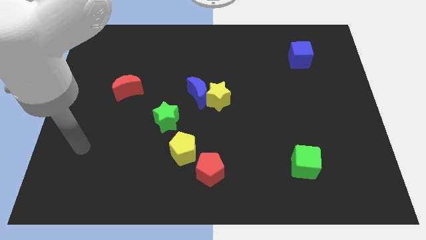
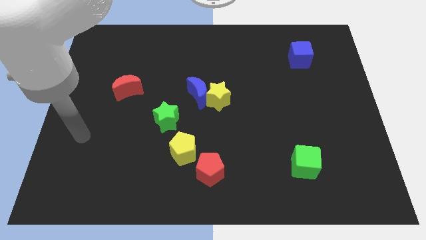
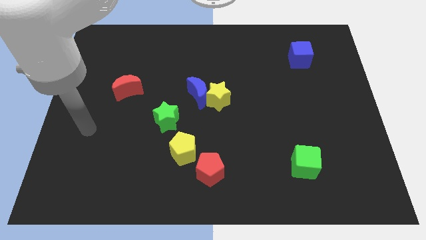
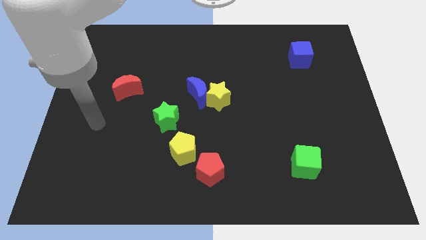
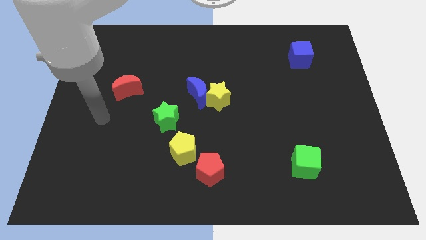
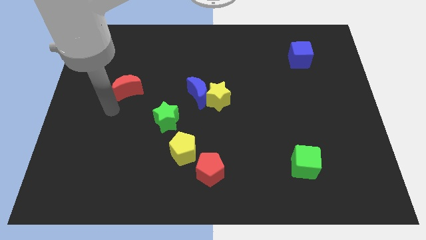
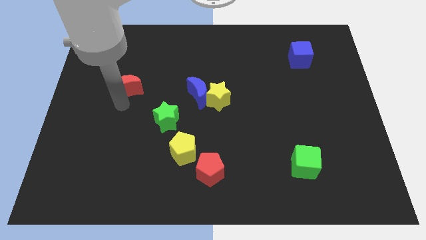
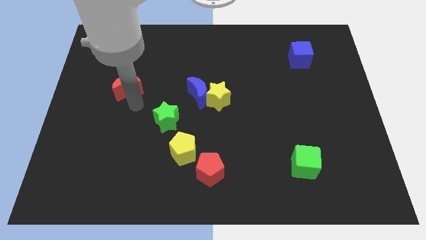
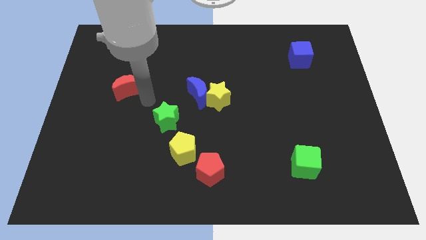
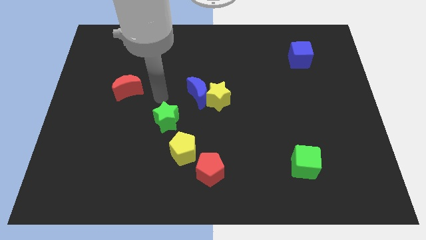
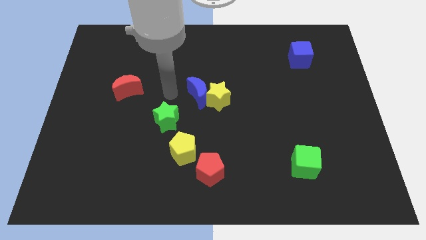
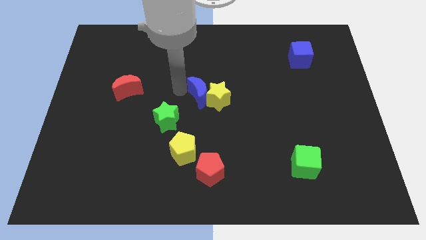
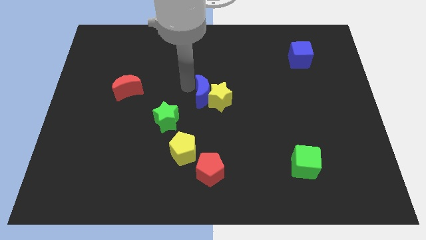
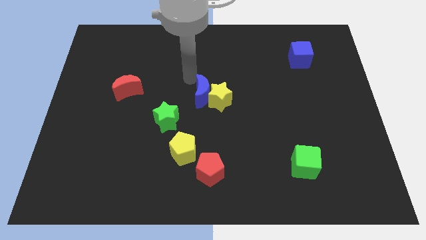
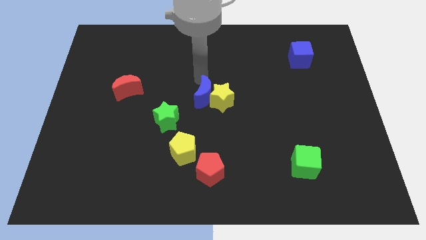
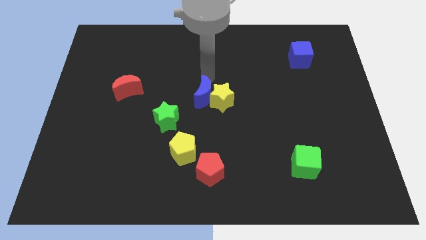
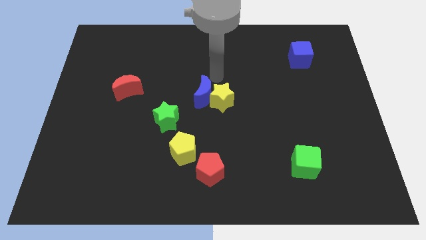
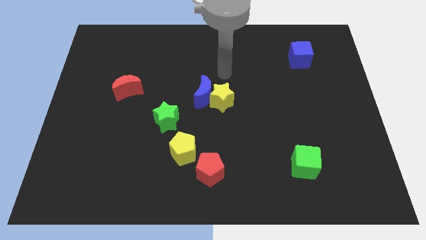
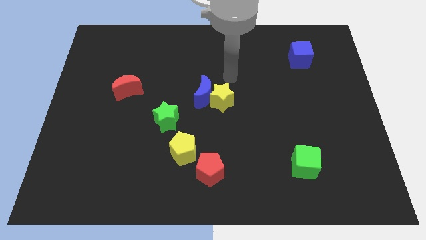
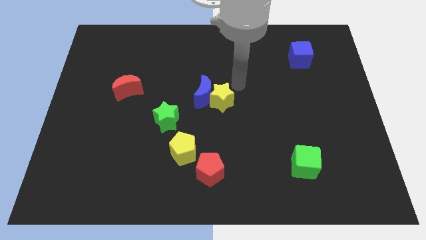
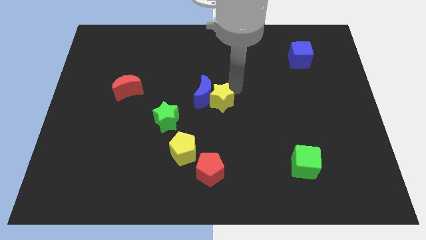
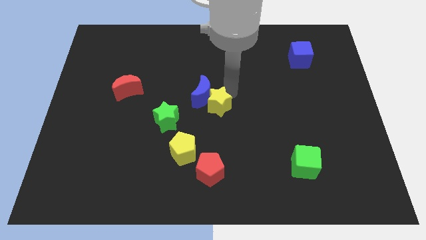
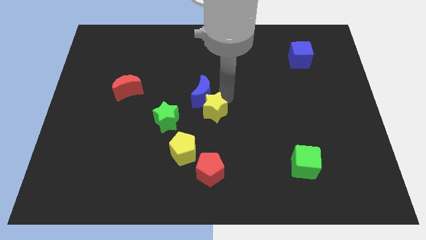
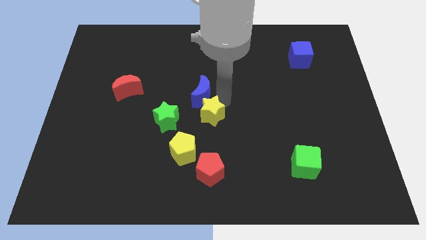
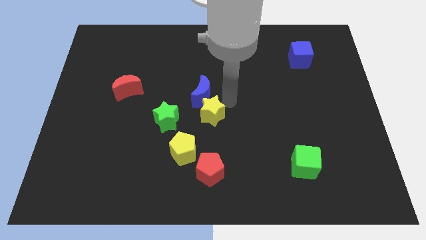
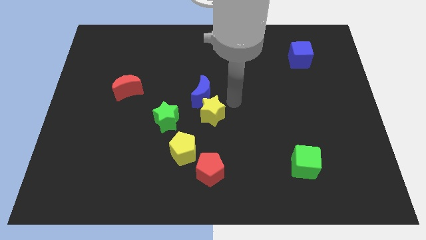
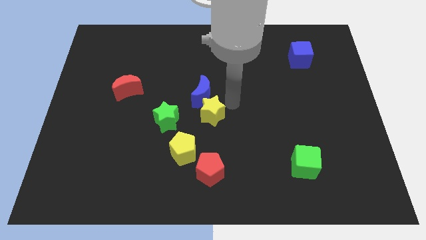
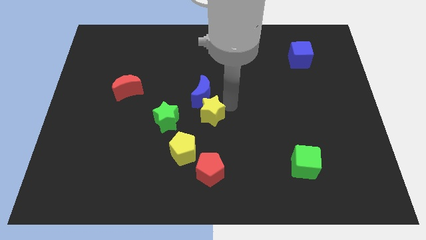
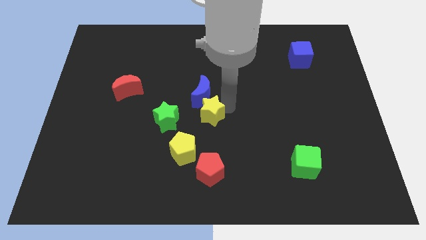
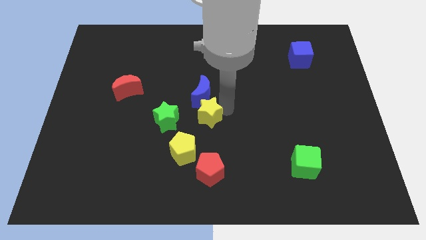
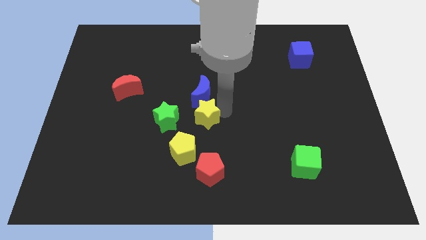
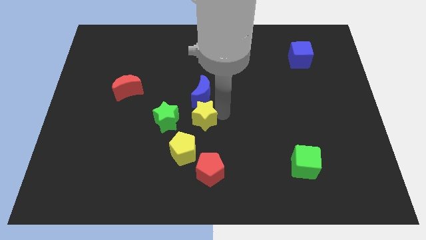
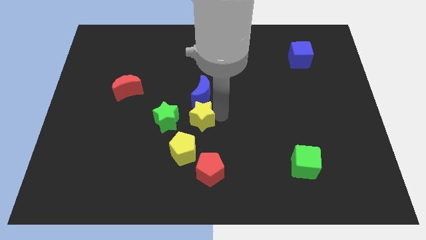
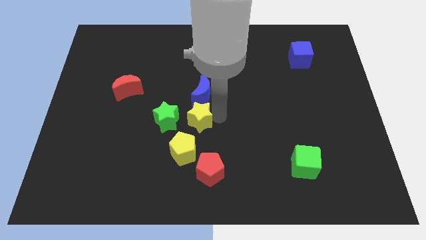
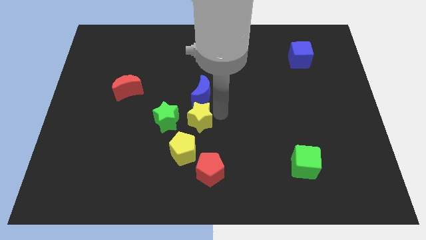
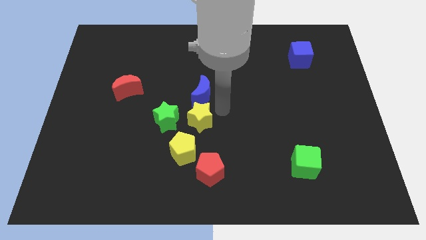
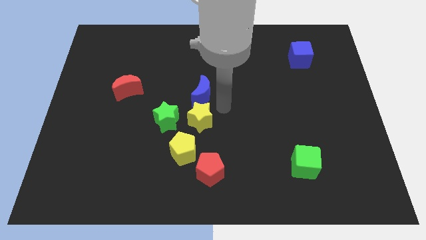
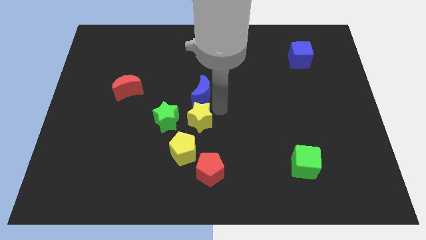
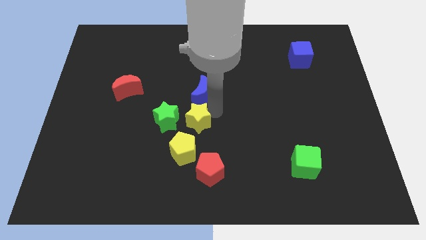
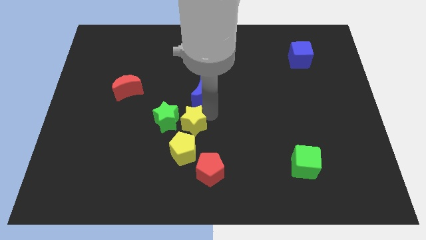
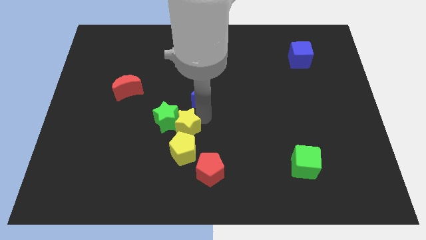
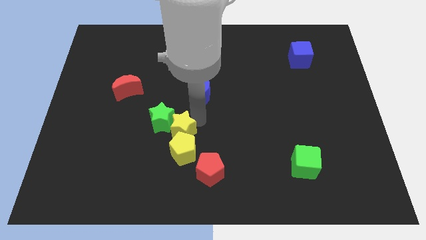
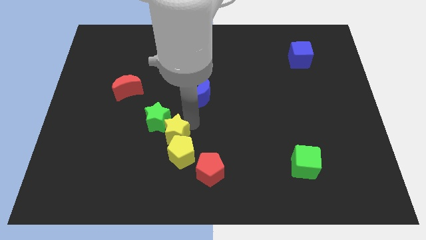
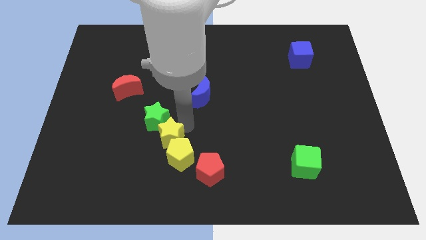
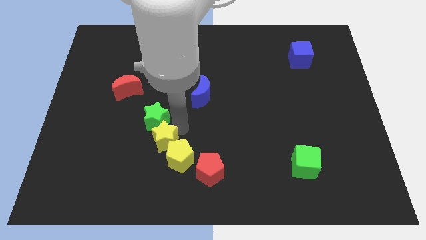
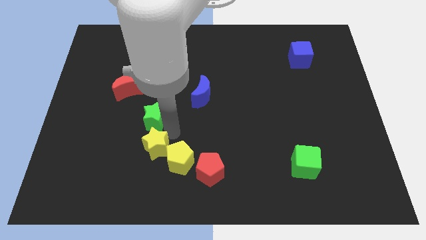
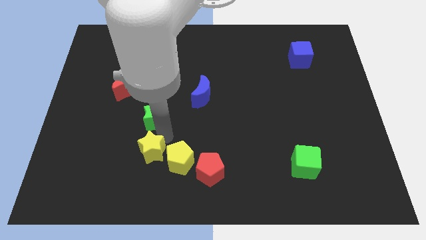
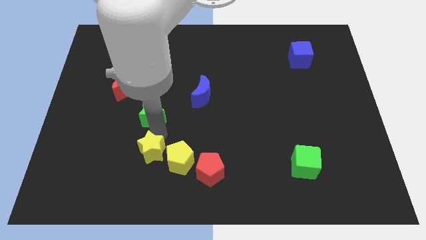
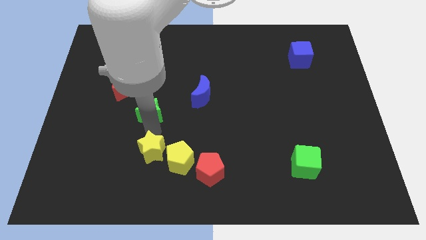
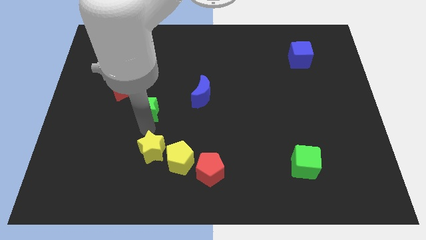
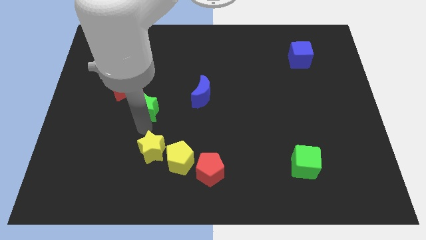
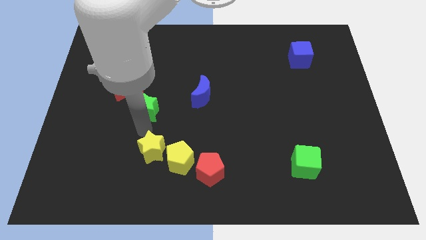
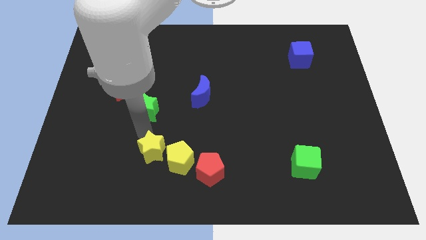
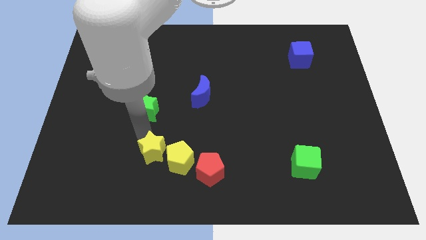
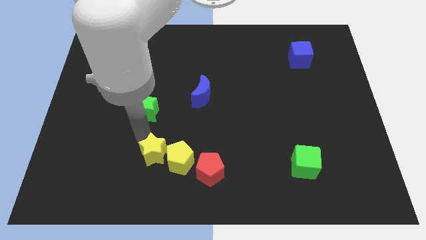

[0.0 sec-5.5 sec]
move the yellow star to the left of the red pentagon

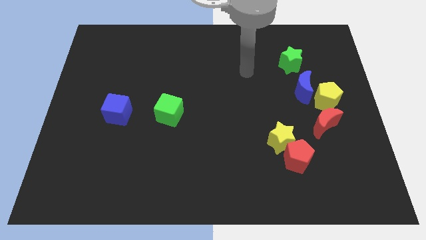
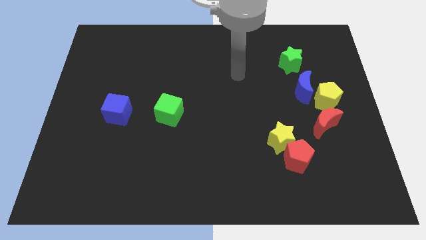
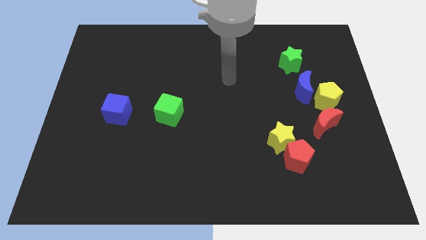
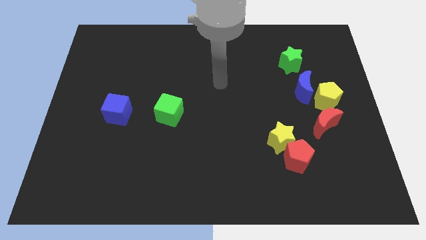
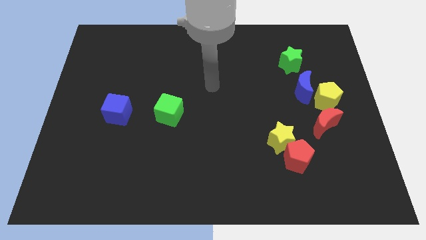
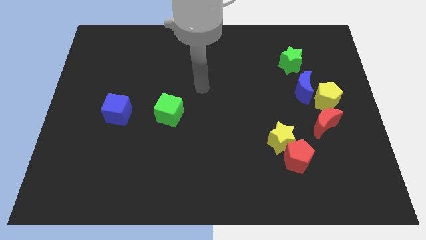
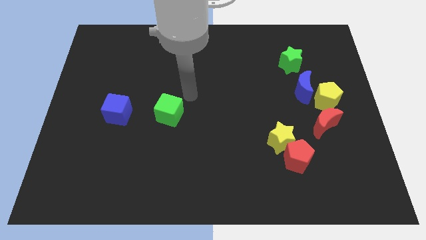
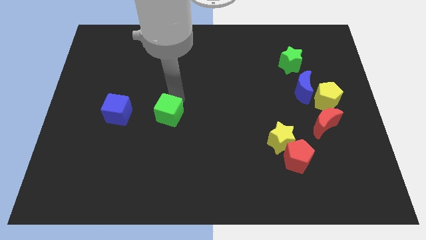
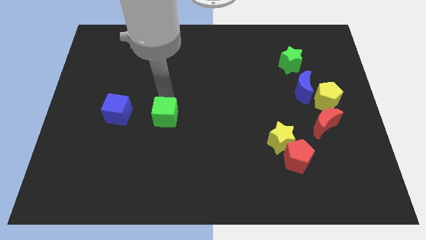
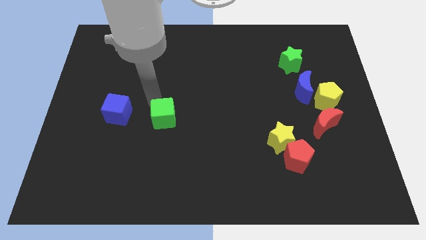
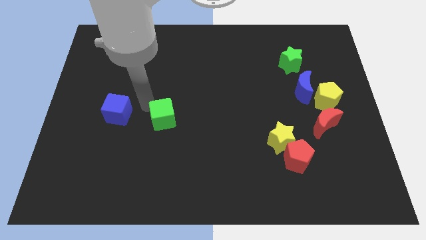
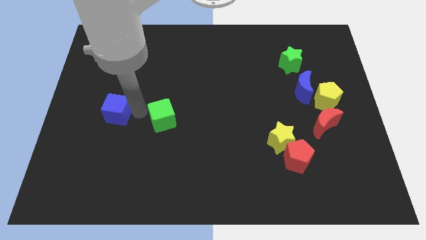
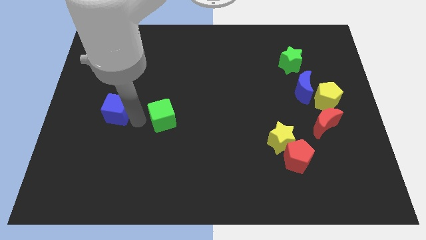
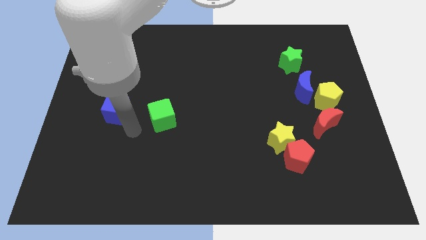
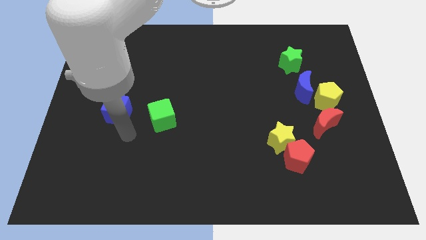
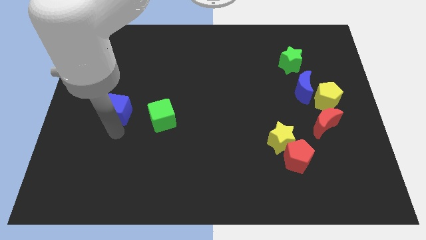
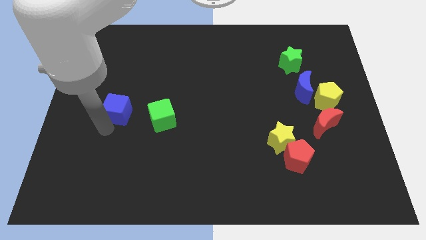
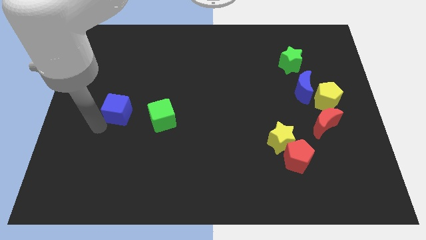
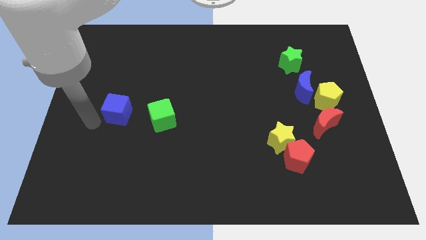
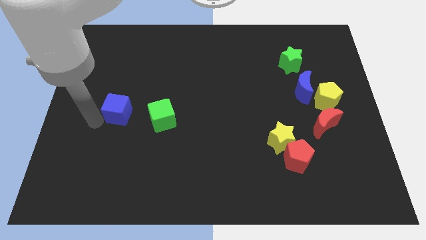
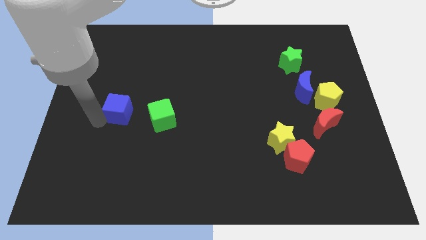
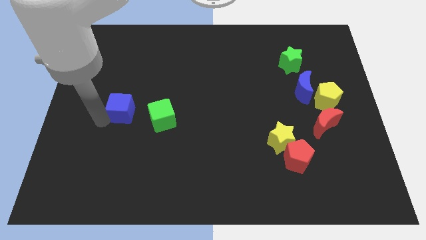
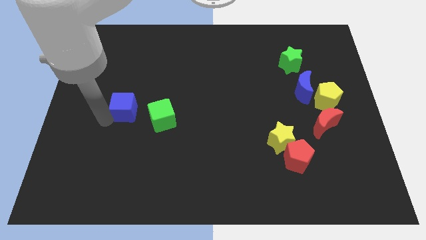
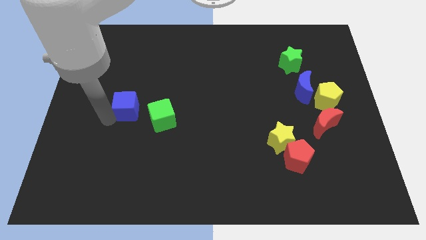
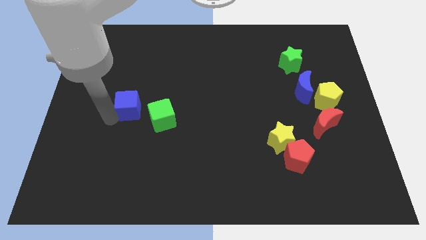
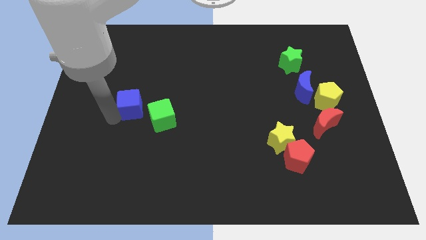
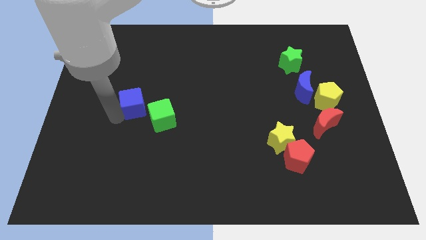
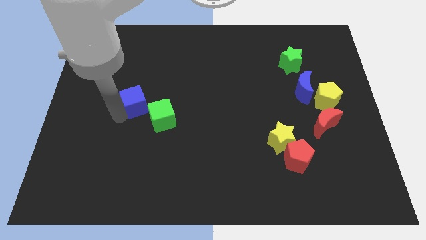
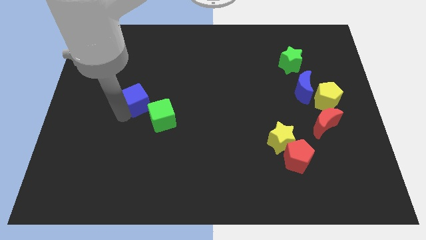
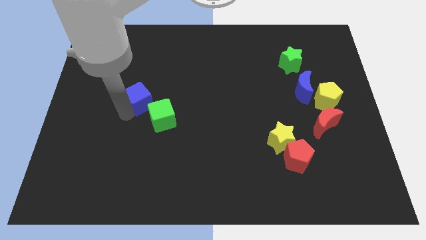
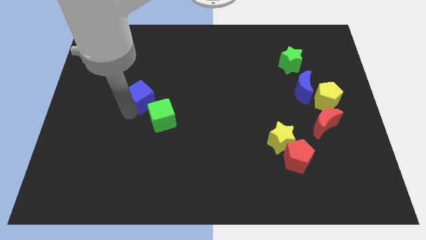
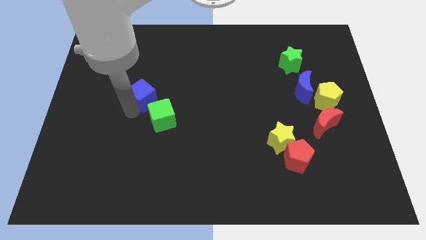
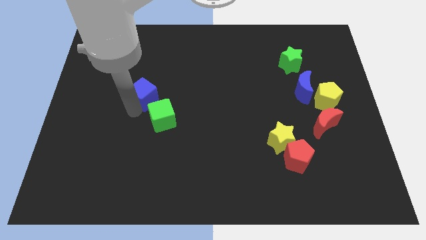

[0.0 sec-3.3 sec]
put the blue cube to the top of the green cube
